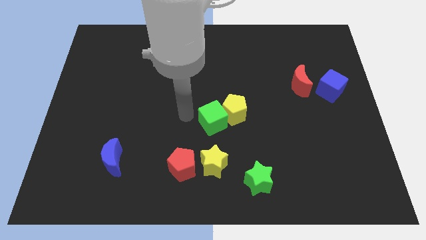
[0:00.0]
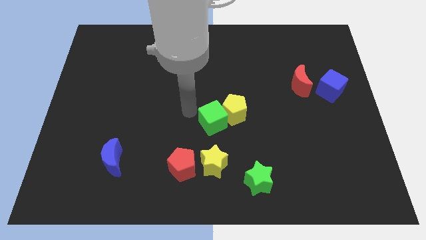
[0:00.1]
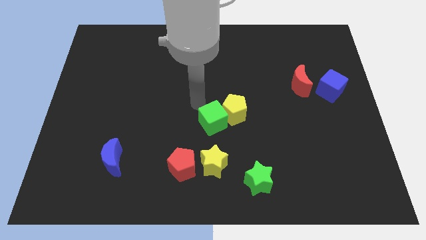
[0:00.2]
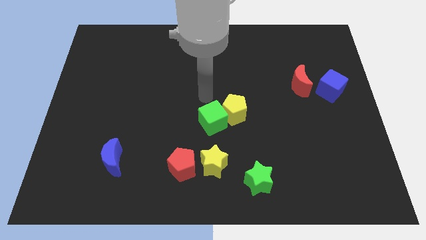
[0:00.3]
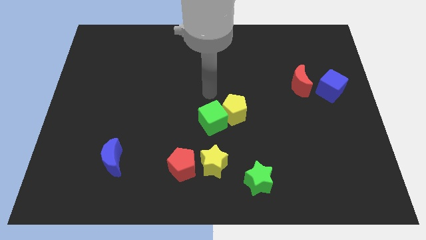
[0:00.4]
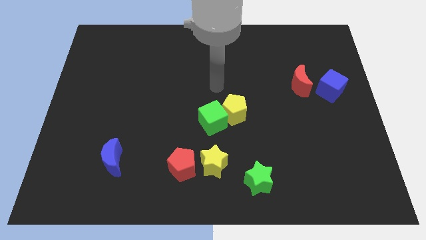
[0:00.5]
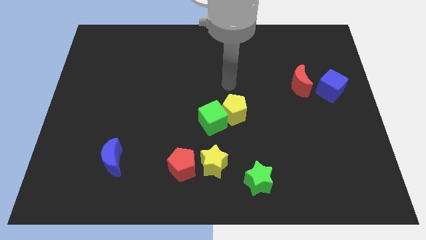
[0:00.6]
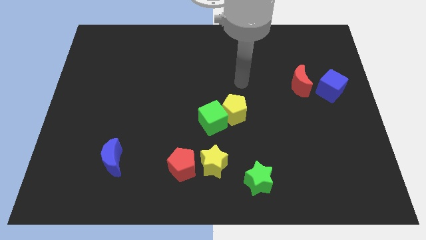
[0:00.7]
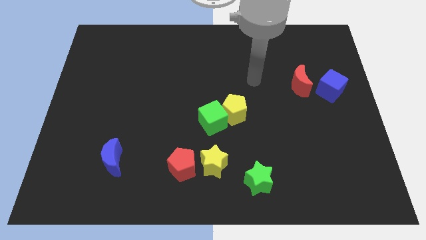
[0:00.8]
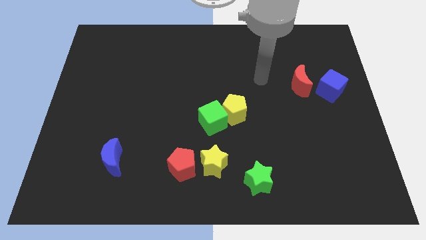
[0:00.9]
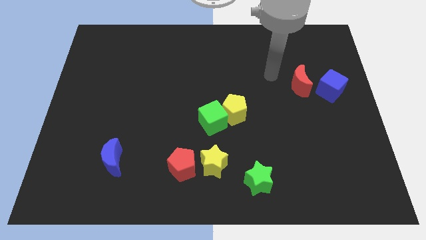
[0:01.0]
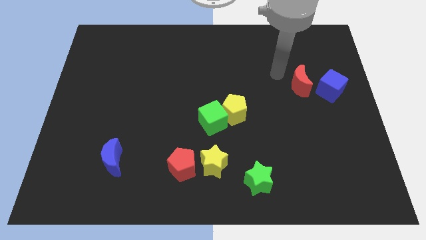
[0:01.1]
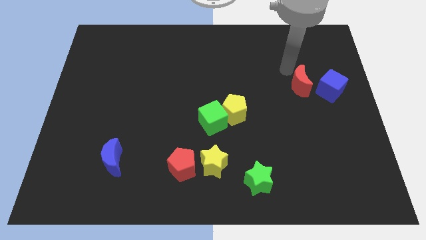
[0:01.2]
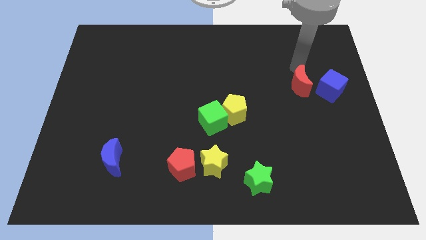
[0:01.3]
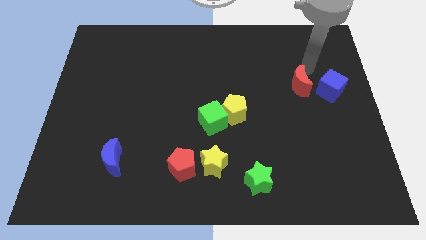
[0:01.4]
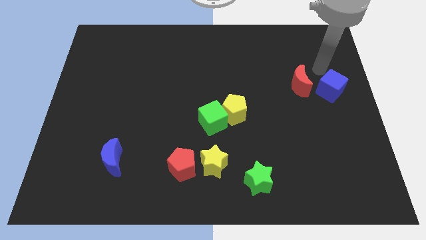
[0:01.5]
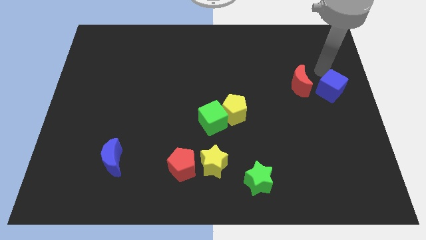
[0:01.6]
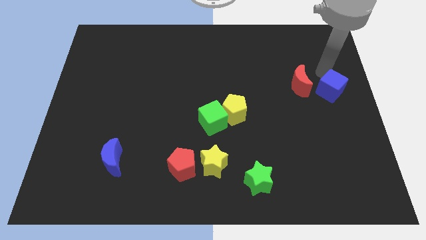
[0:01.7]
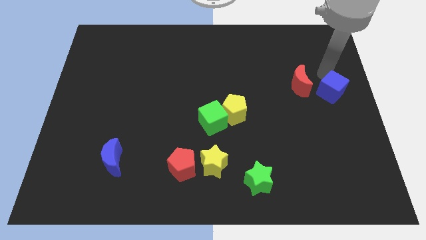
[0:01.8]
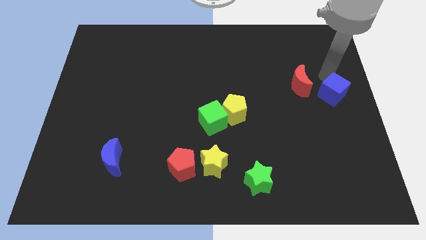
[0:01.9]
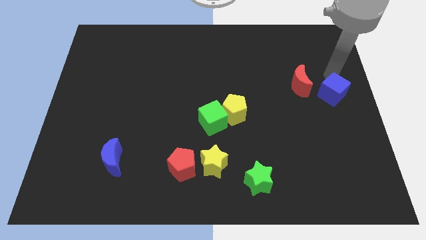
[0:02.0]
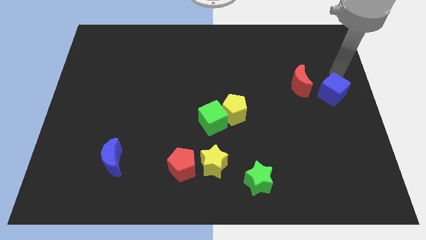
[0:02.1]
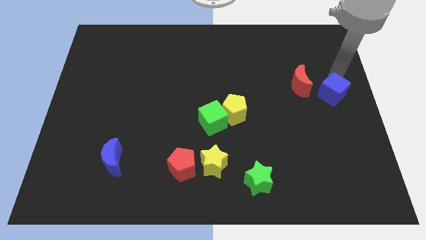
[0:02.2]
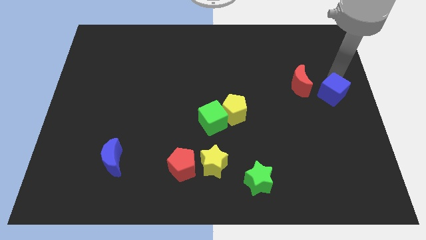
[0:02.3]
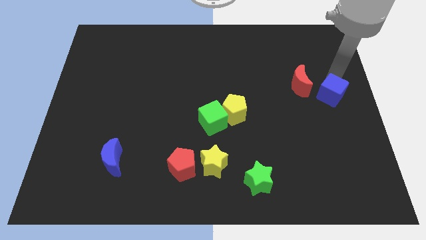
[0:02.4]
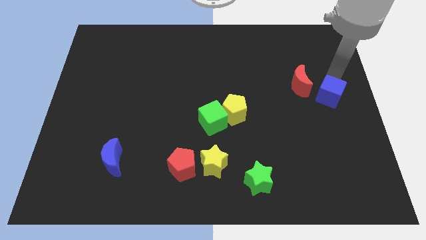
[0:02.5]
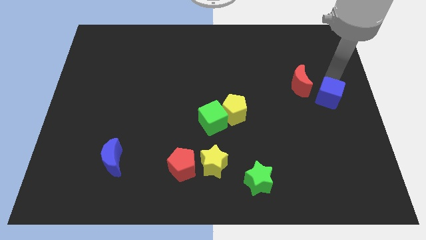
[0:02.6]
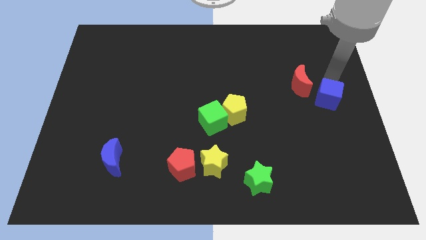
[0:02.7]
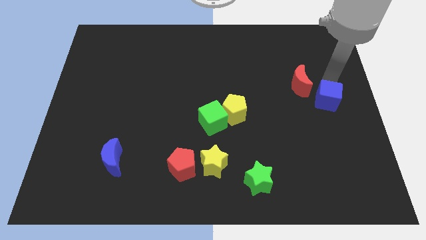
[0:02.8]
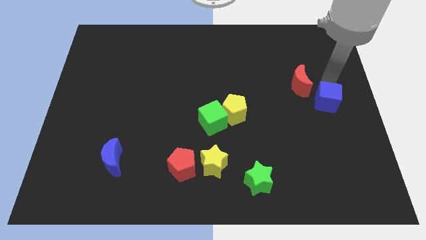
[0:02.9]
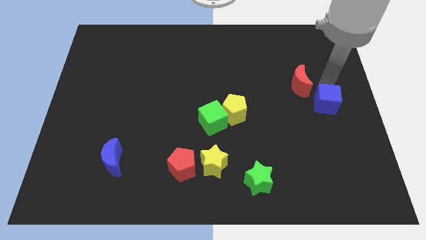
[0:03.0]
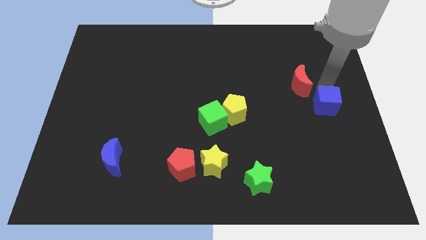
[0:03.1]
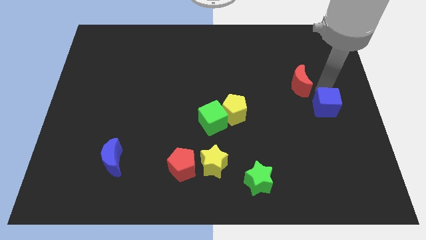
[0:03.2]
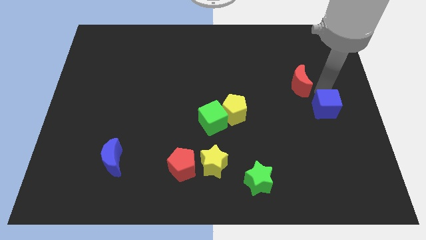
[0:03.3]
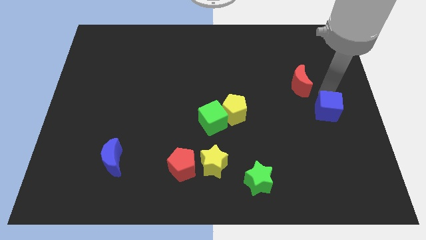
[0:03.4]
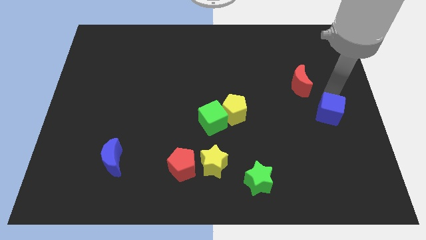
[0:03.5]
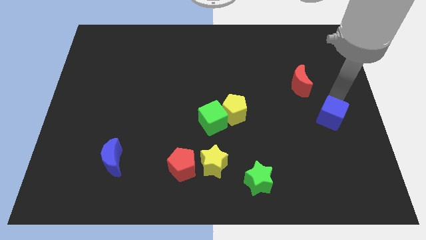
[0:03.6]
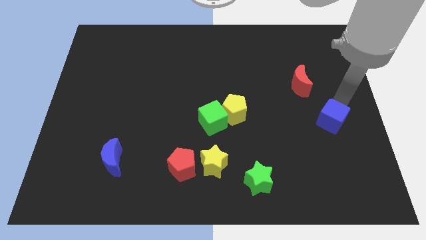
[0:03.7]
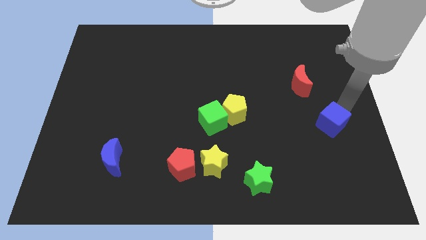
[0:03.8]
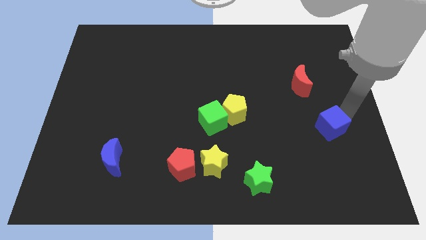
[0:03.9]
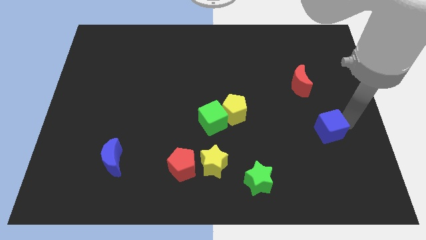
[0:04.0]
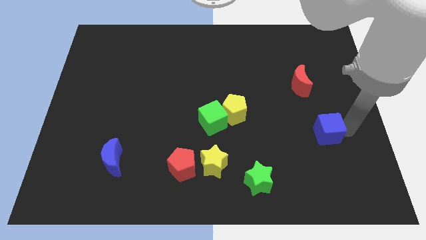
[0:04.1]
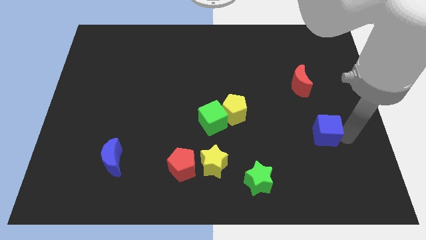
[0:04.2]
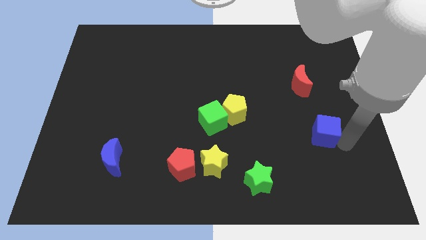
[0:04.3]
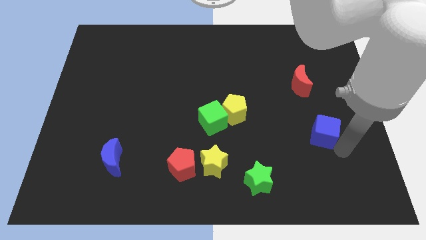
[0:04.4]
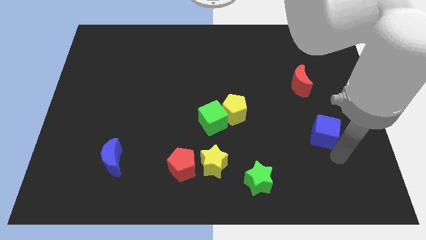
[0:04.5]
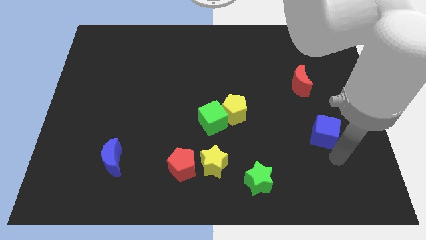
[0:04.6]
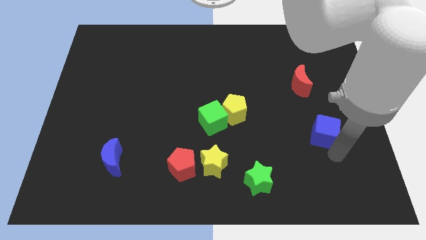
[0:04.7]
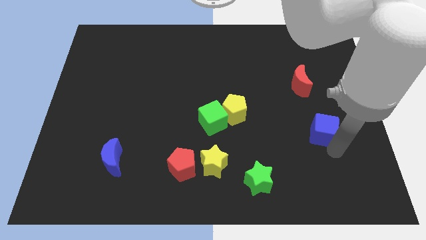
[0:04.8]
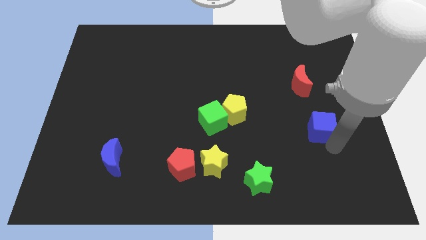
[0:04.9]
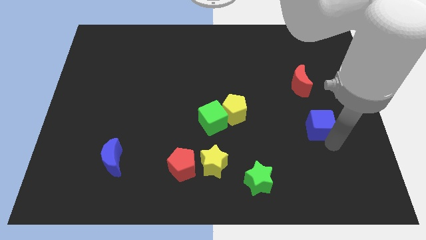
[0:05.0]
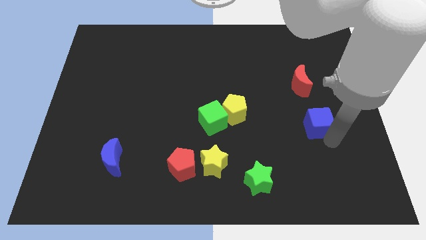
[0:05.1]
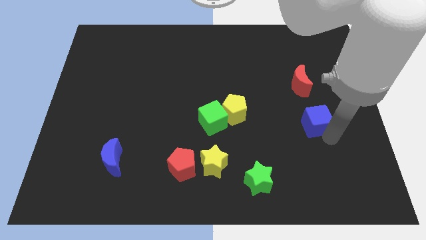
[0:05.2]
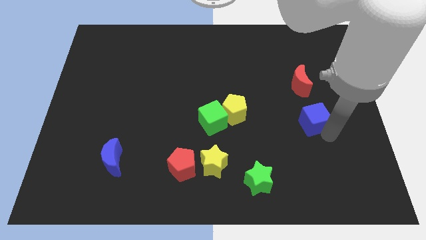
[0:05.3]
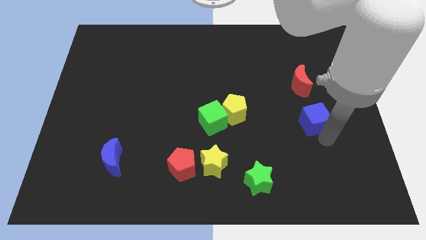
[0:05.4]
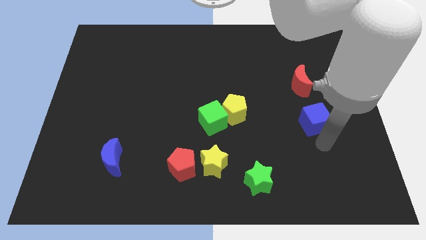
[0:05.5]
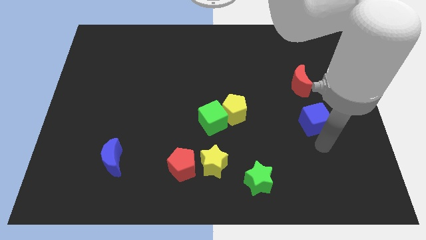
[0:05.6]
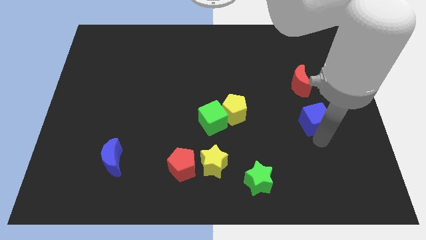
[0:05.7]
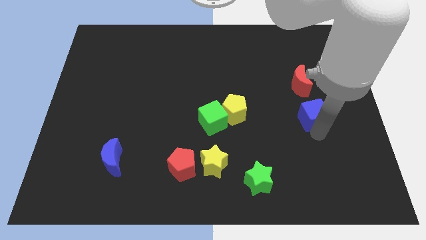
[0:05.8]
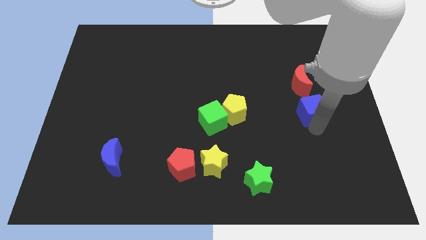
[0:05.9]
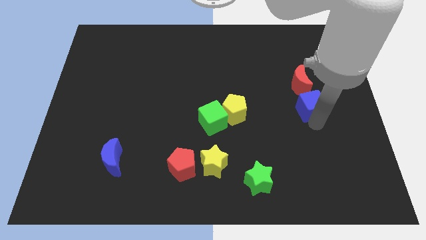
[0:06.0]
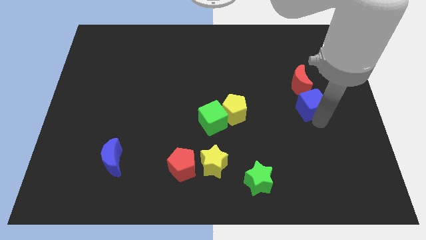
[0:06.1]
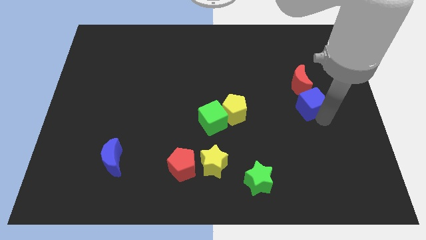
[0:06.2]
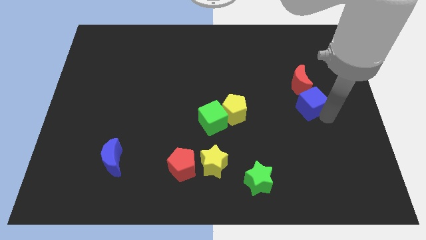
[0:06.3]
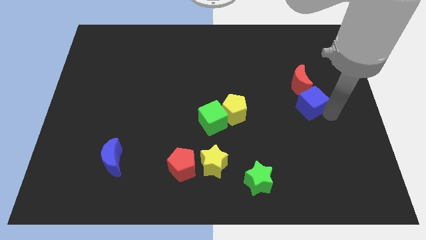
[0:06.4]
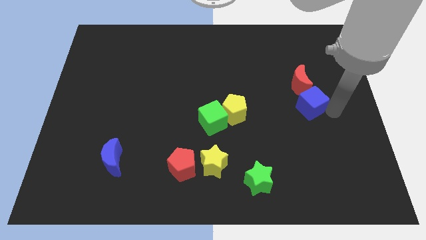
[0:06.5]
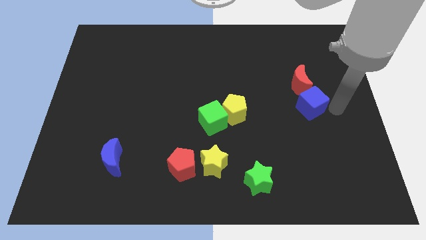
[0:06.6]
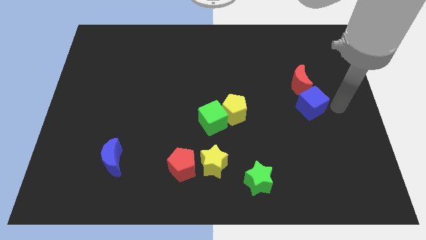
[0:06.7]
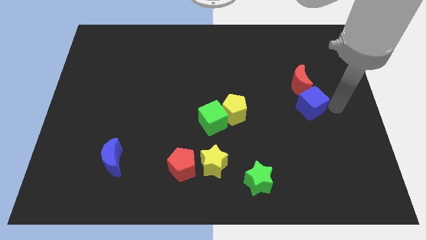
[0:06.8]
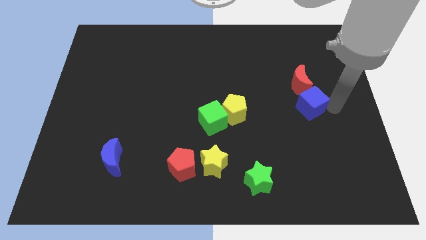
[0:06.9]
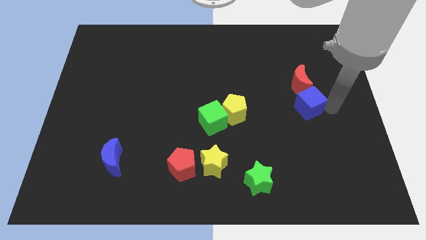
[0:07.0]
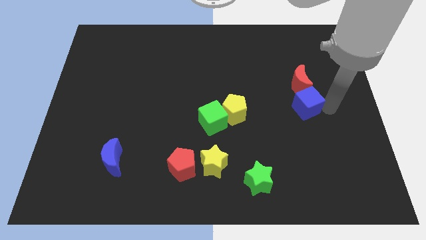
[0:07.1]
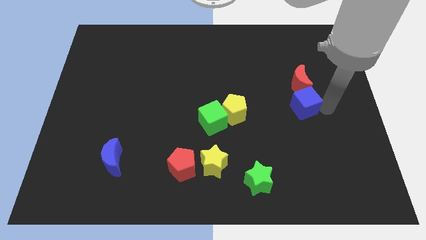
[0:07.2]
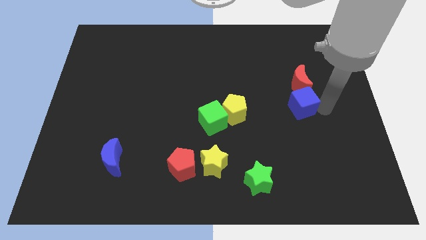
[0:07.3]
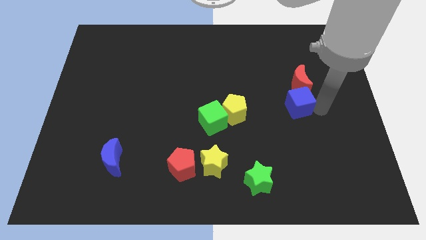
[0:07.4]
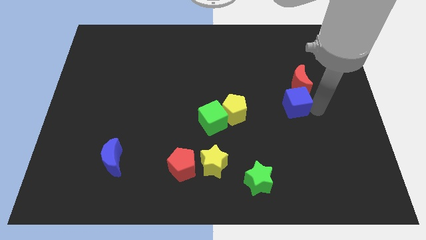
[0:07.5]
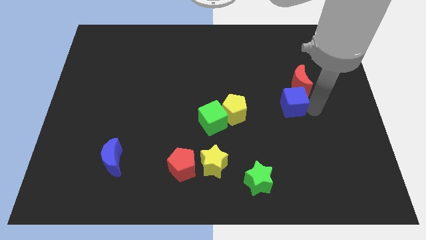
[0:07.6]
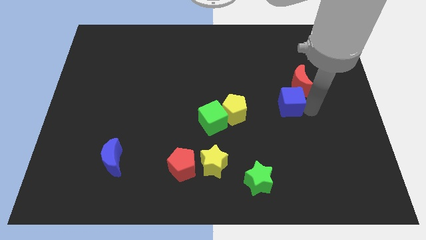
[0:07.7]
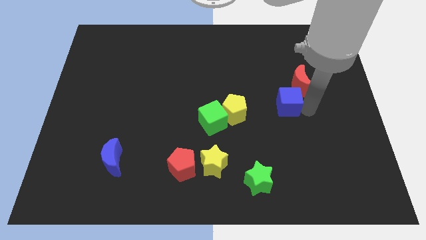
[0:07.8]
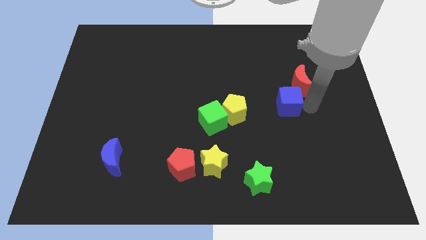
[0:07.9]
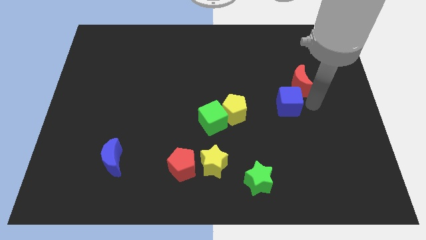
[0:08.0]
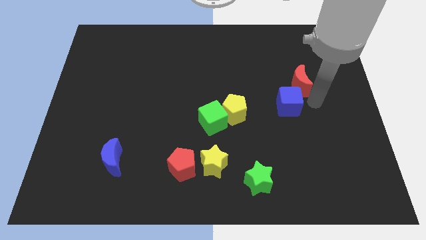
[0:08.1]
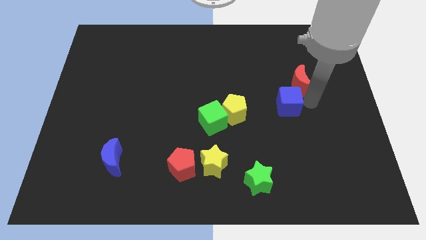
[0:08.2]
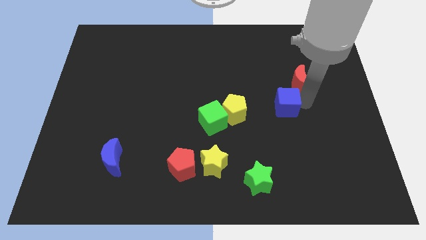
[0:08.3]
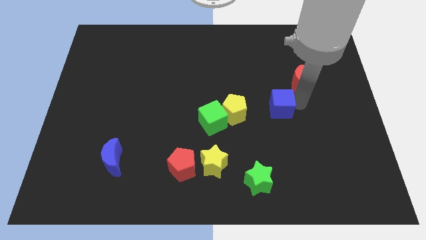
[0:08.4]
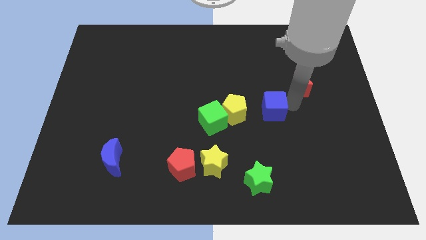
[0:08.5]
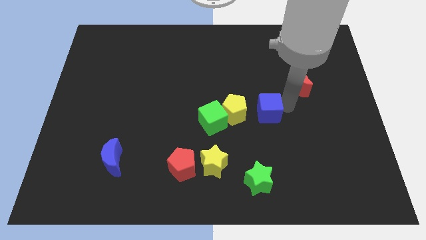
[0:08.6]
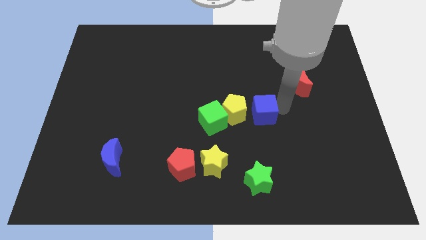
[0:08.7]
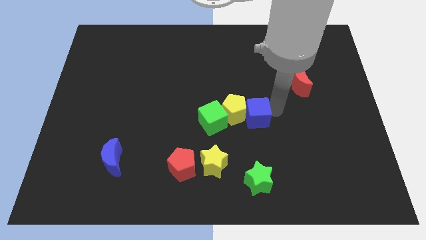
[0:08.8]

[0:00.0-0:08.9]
slide the blue cube next to the yellow pentagon
